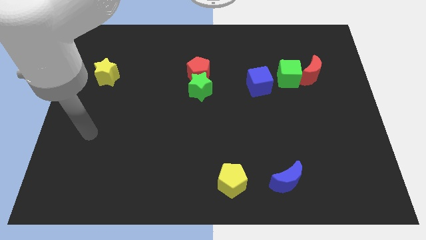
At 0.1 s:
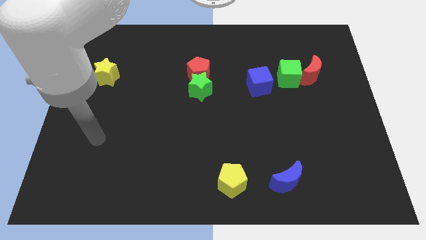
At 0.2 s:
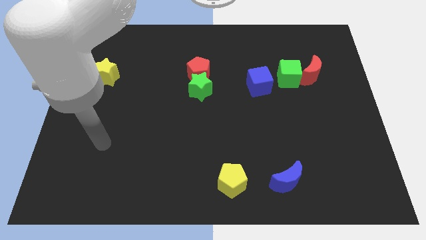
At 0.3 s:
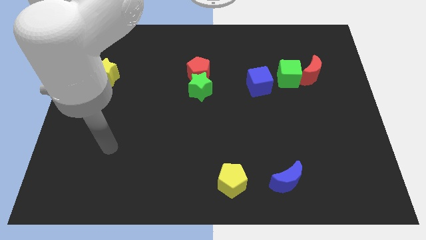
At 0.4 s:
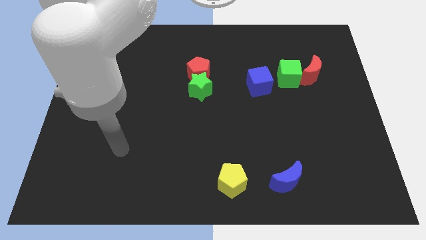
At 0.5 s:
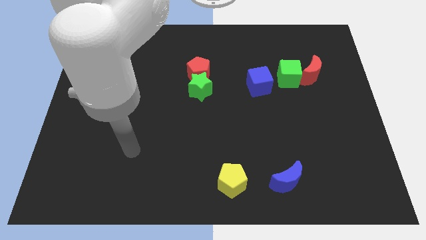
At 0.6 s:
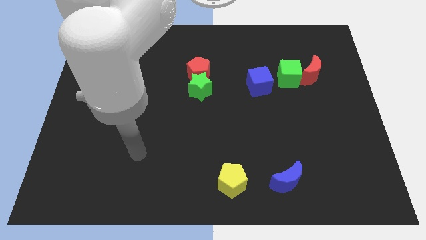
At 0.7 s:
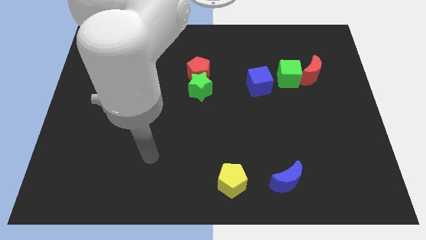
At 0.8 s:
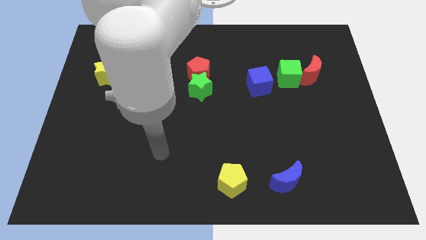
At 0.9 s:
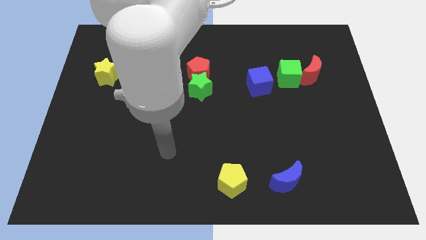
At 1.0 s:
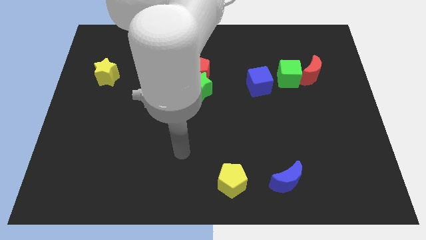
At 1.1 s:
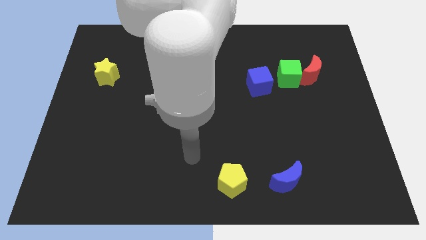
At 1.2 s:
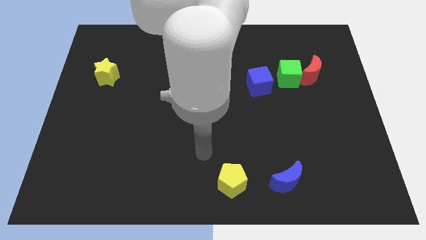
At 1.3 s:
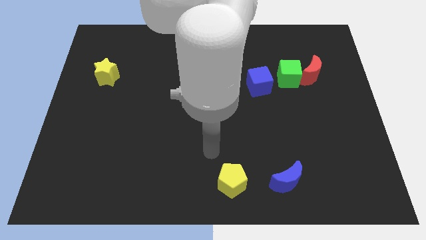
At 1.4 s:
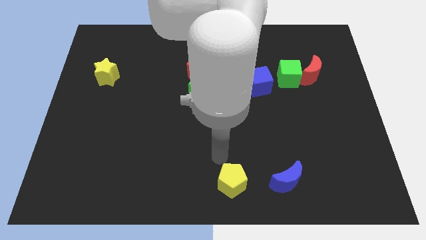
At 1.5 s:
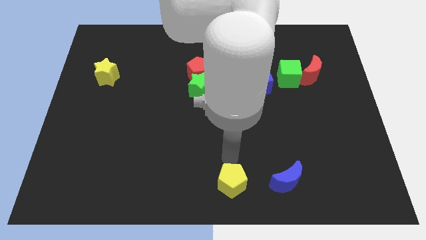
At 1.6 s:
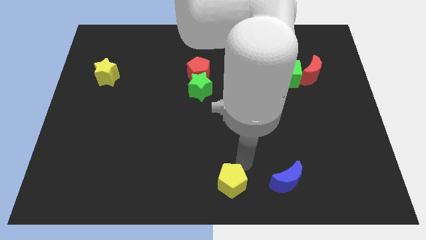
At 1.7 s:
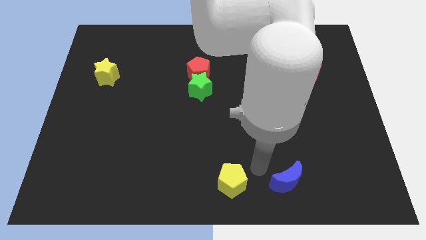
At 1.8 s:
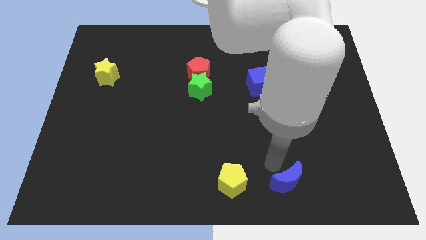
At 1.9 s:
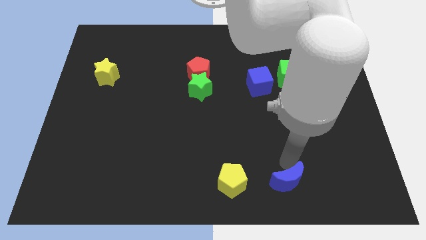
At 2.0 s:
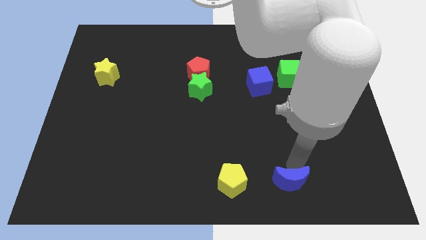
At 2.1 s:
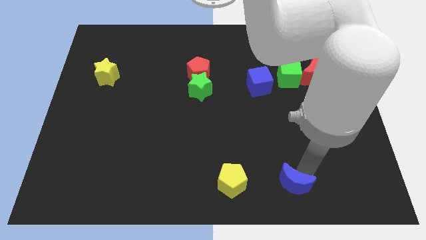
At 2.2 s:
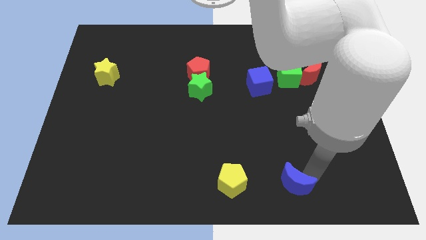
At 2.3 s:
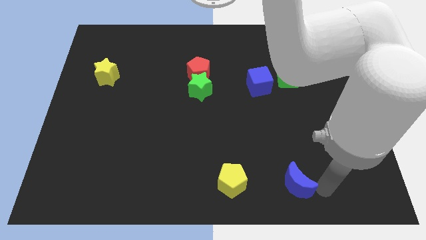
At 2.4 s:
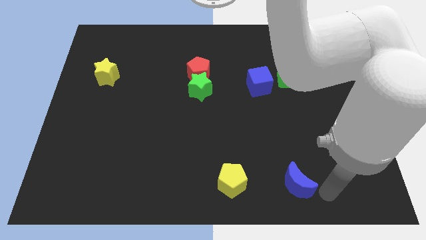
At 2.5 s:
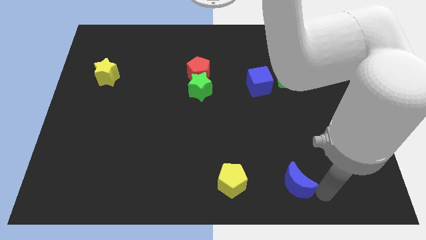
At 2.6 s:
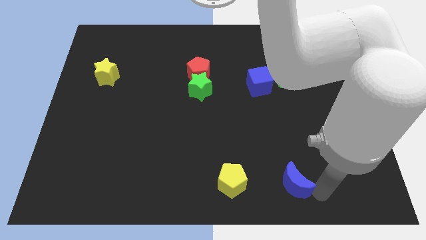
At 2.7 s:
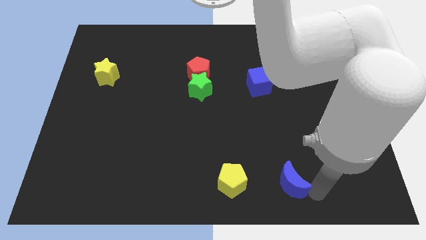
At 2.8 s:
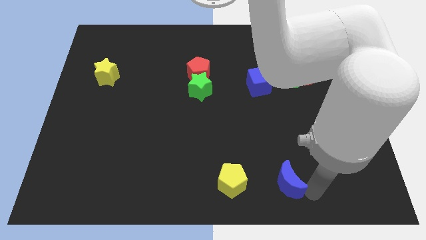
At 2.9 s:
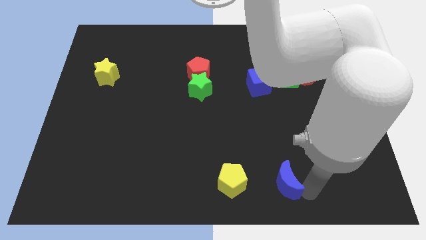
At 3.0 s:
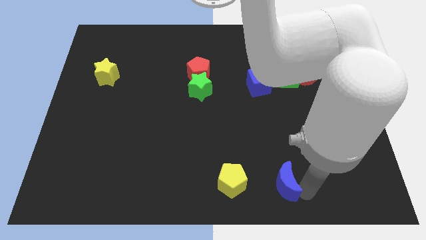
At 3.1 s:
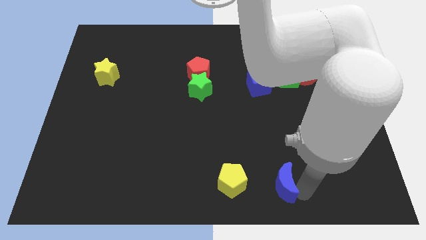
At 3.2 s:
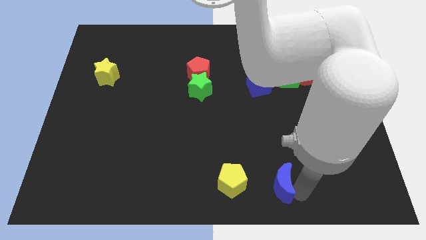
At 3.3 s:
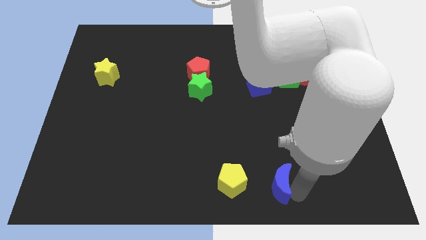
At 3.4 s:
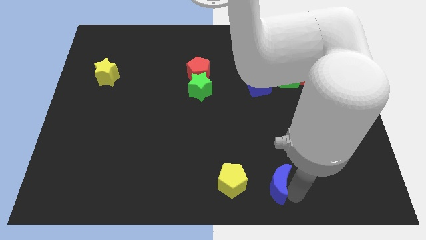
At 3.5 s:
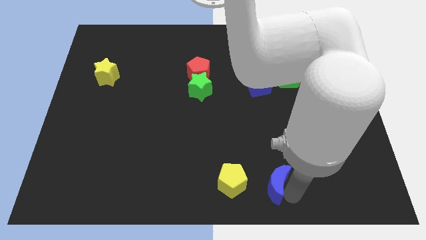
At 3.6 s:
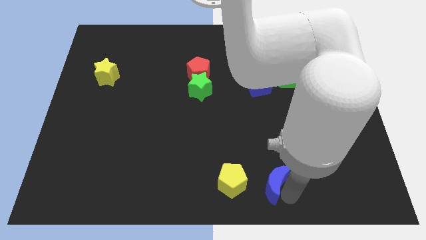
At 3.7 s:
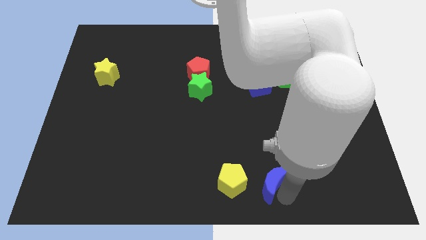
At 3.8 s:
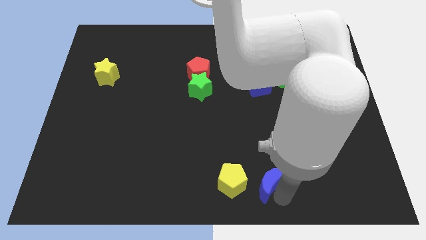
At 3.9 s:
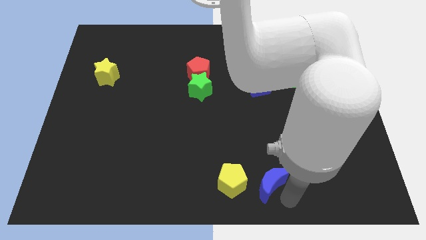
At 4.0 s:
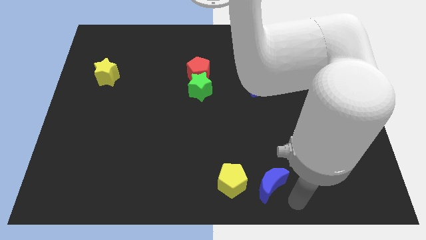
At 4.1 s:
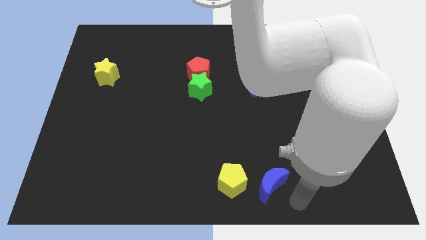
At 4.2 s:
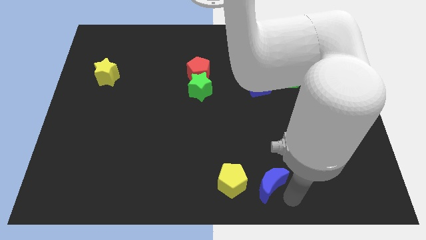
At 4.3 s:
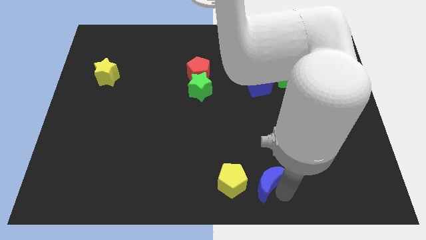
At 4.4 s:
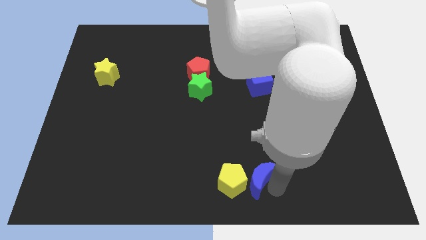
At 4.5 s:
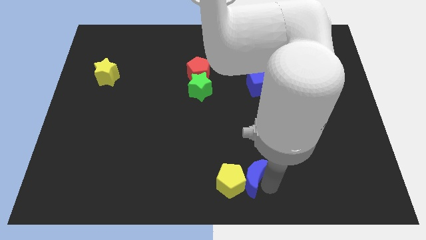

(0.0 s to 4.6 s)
slide the blue moon a little bit to the left

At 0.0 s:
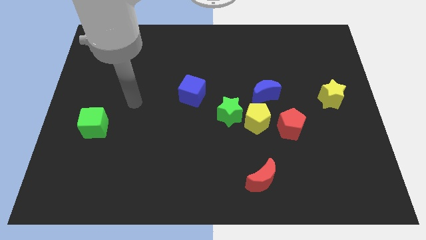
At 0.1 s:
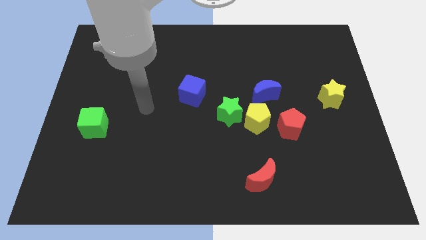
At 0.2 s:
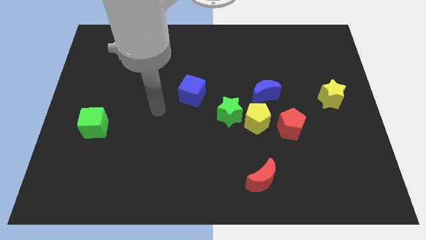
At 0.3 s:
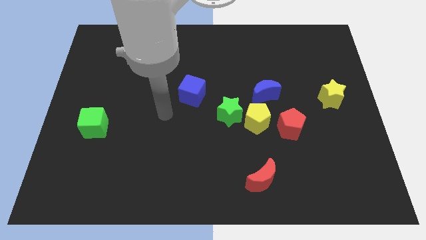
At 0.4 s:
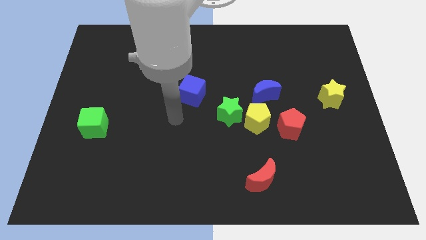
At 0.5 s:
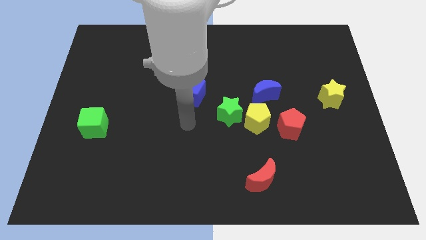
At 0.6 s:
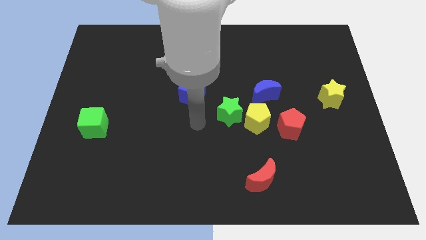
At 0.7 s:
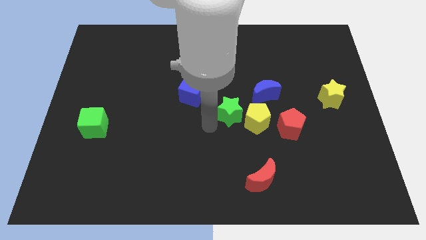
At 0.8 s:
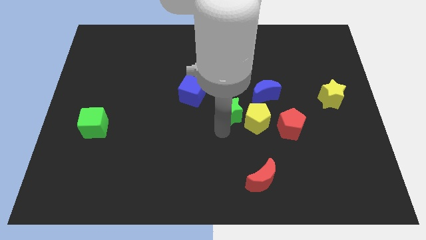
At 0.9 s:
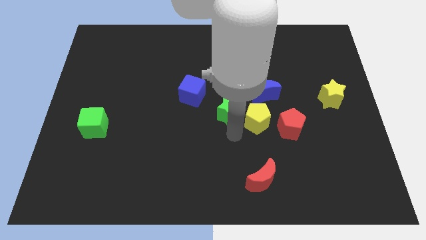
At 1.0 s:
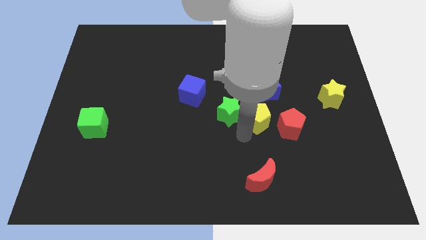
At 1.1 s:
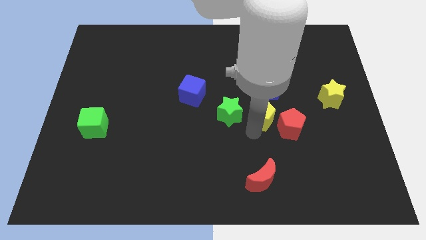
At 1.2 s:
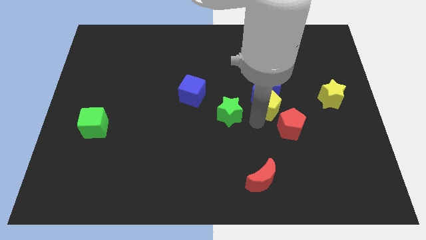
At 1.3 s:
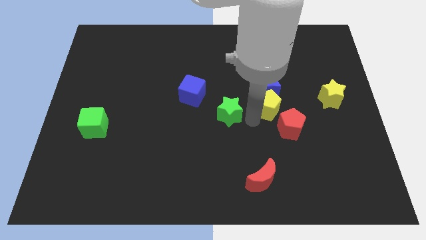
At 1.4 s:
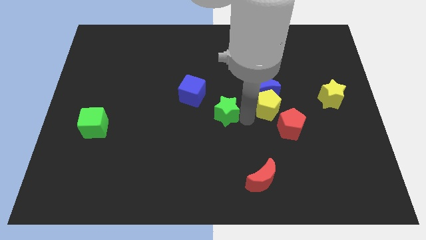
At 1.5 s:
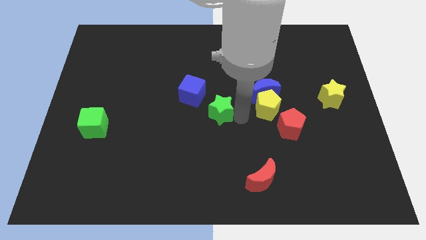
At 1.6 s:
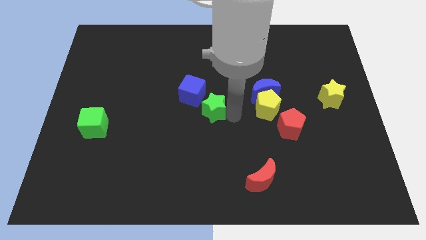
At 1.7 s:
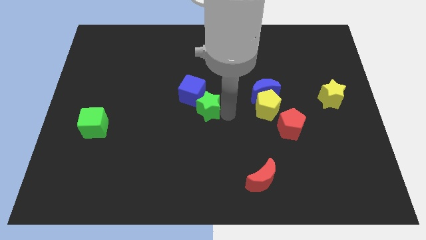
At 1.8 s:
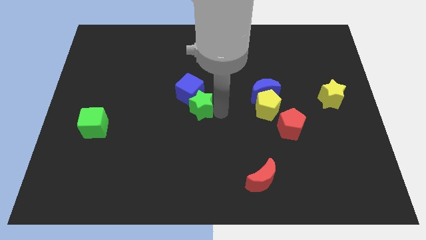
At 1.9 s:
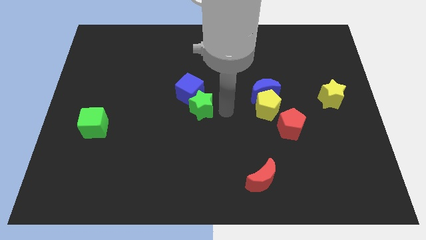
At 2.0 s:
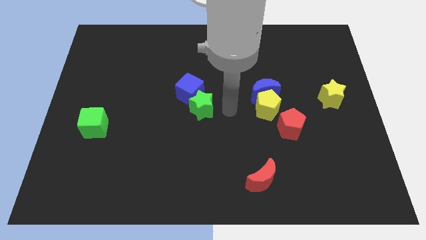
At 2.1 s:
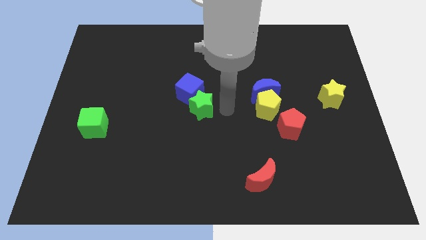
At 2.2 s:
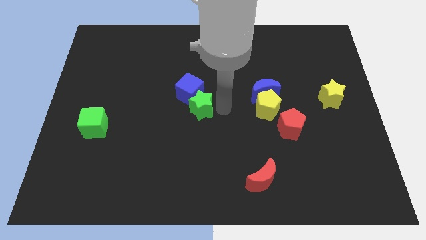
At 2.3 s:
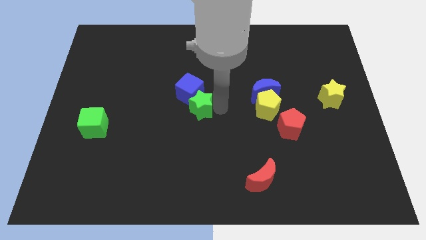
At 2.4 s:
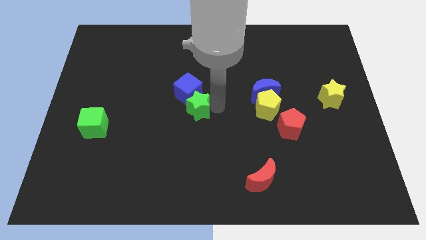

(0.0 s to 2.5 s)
slide the green star a bit to the left

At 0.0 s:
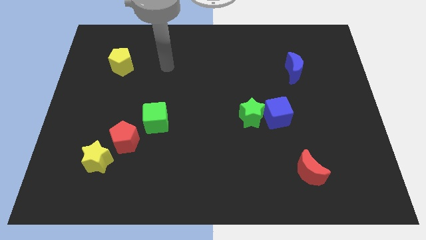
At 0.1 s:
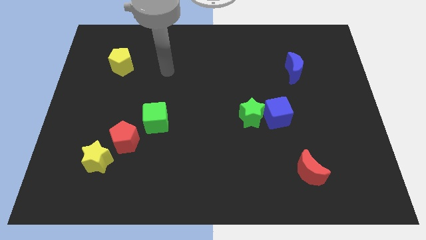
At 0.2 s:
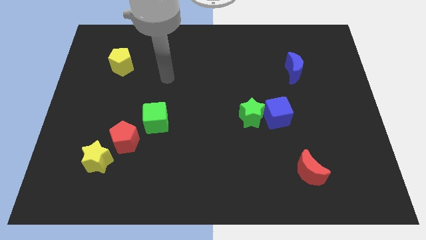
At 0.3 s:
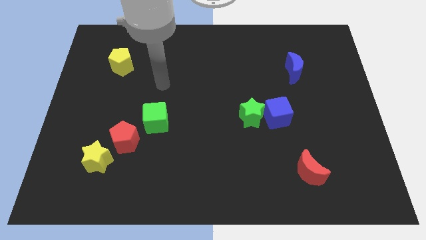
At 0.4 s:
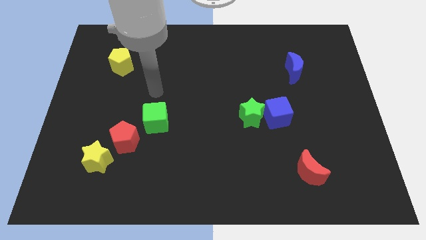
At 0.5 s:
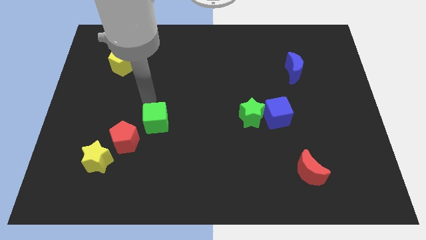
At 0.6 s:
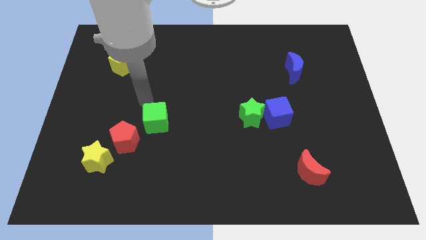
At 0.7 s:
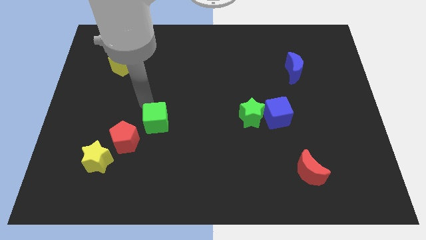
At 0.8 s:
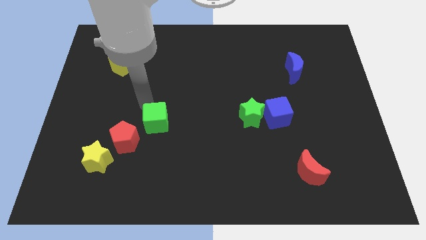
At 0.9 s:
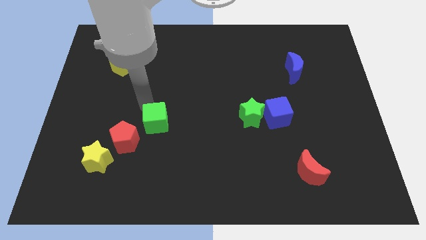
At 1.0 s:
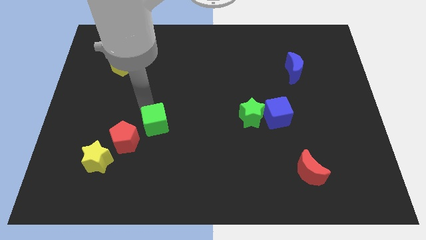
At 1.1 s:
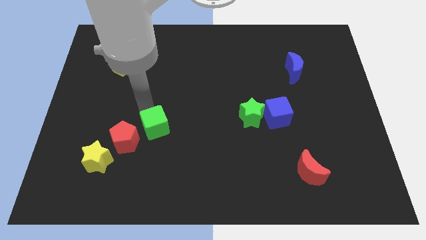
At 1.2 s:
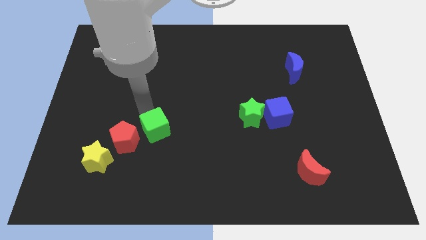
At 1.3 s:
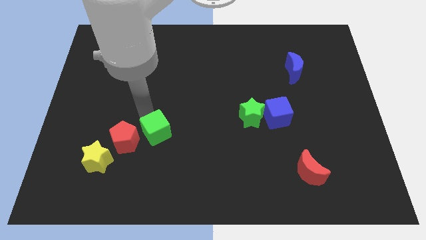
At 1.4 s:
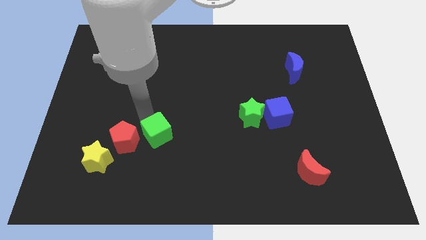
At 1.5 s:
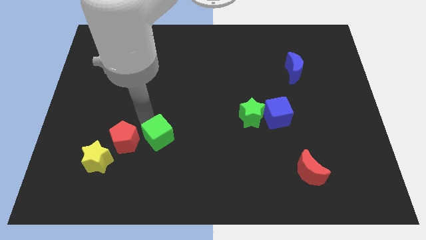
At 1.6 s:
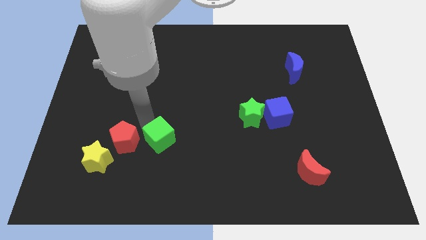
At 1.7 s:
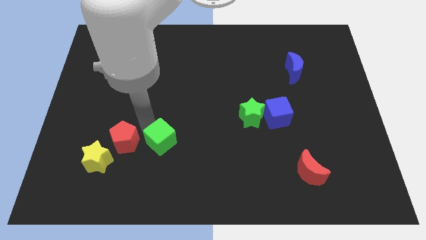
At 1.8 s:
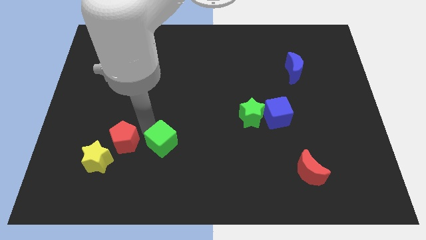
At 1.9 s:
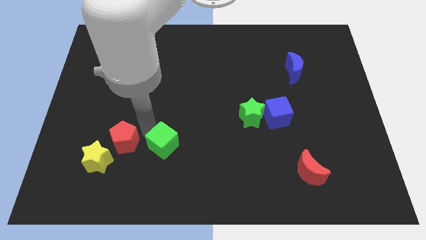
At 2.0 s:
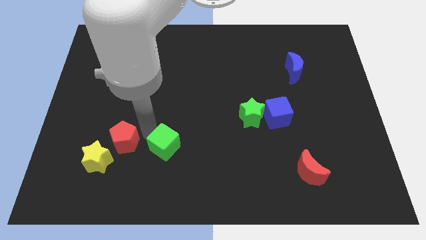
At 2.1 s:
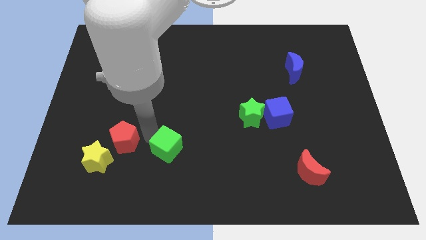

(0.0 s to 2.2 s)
push the green cube slightly downwards and to the right
